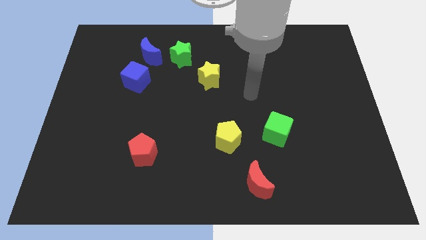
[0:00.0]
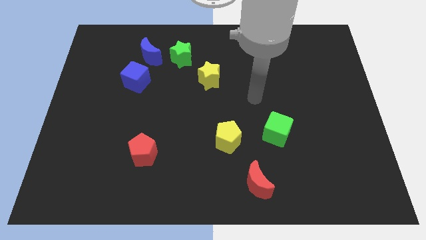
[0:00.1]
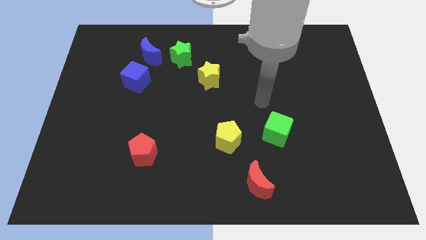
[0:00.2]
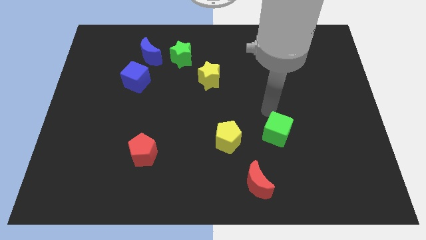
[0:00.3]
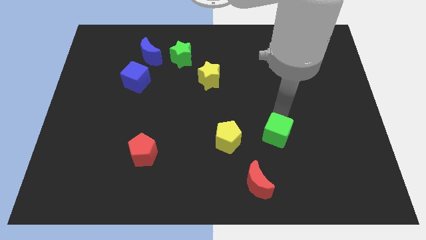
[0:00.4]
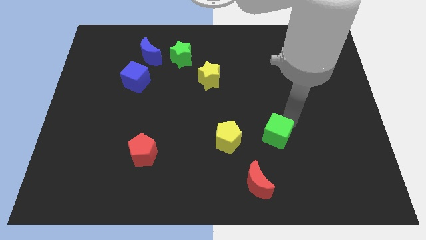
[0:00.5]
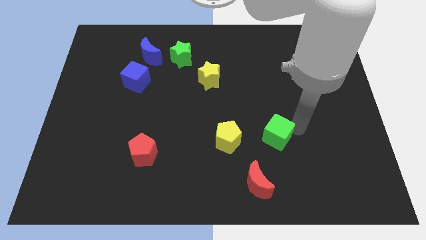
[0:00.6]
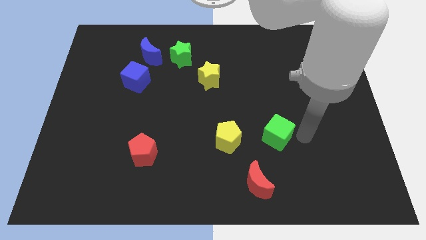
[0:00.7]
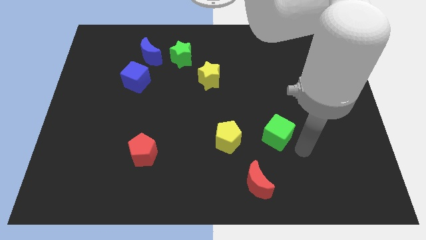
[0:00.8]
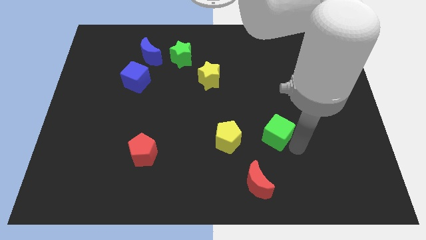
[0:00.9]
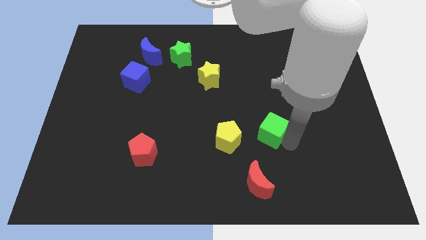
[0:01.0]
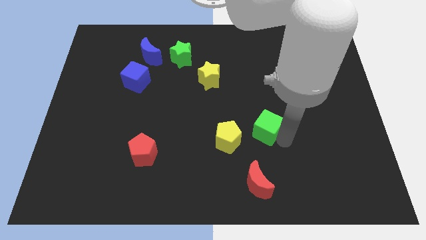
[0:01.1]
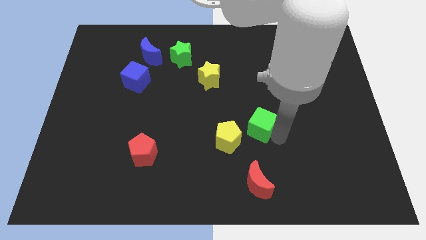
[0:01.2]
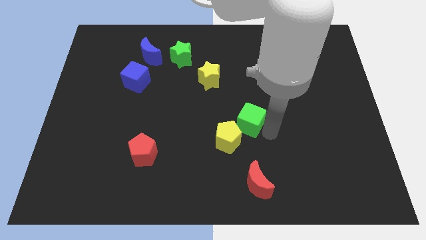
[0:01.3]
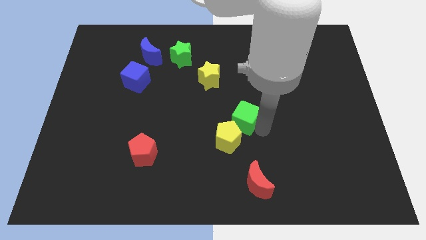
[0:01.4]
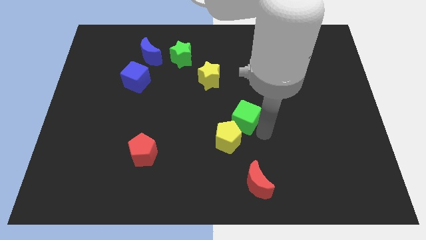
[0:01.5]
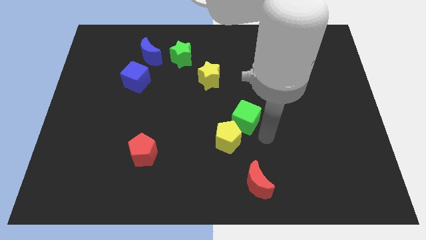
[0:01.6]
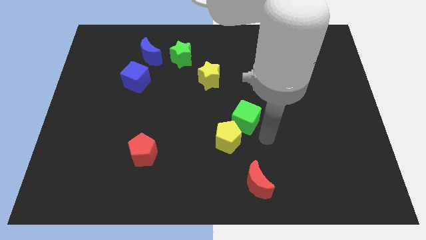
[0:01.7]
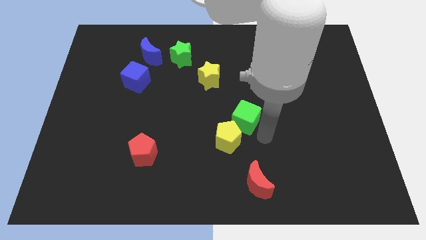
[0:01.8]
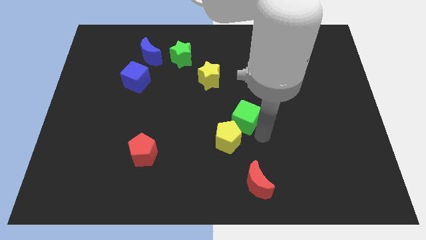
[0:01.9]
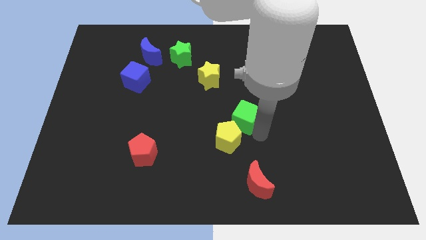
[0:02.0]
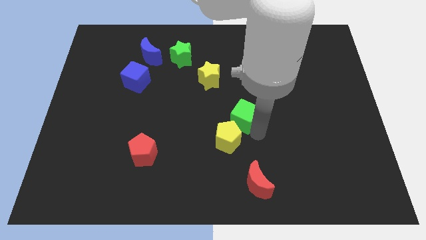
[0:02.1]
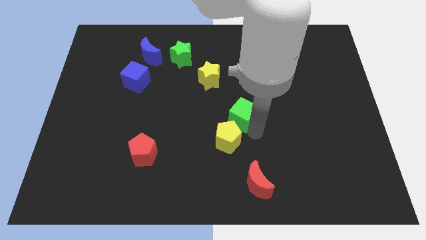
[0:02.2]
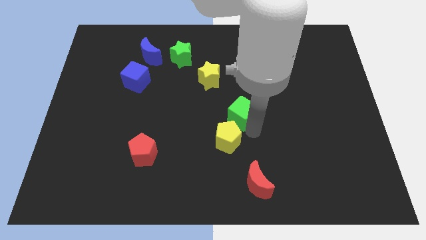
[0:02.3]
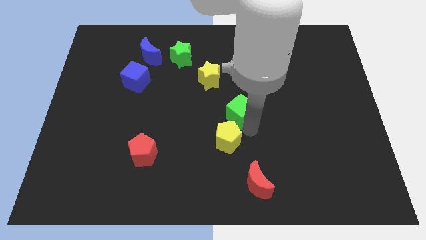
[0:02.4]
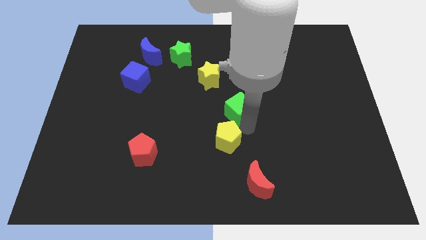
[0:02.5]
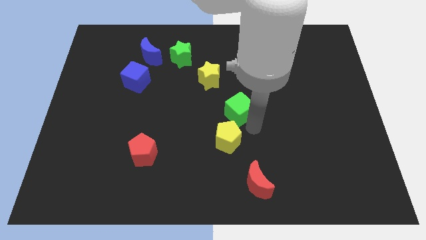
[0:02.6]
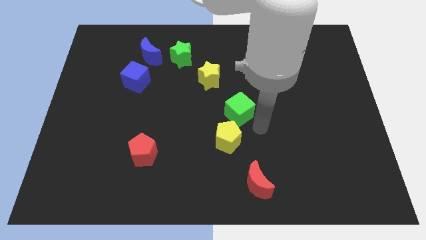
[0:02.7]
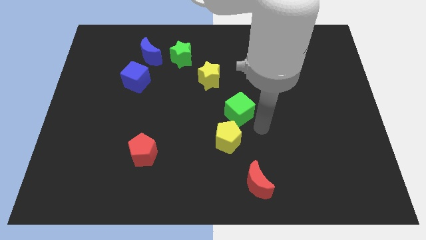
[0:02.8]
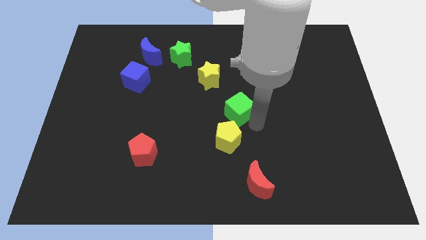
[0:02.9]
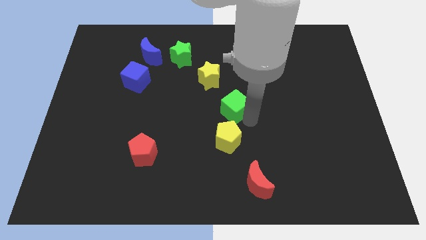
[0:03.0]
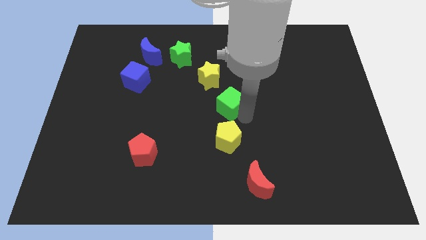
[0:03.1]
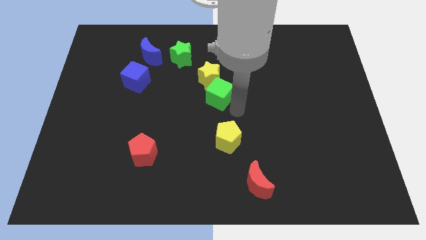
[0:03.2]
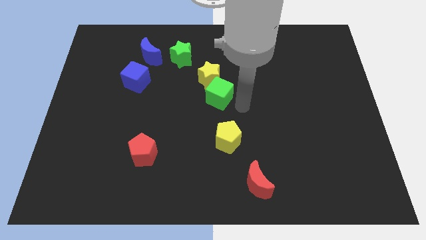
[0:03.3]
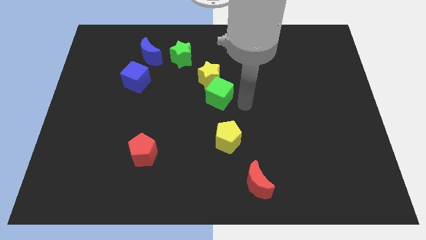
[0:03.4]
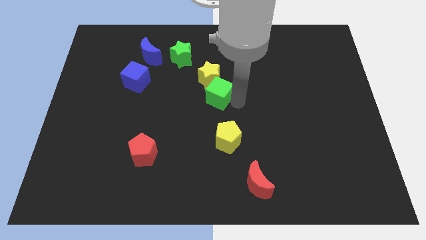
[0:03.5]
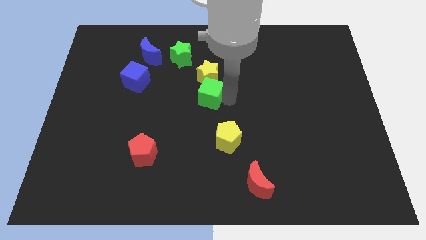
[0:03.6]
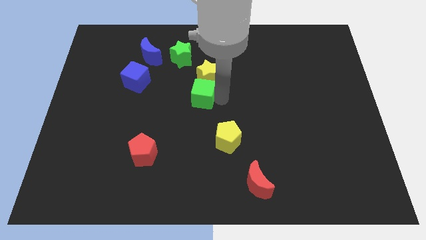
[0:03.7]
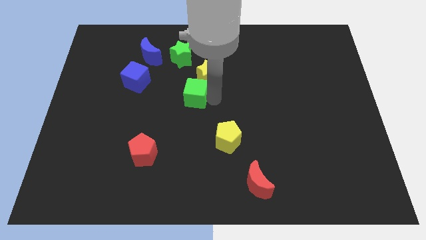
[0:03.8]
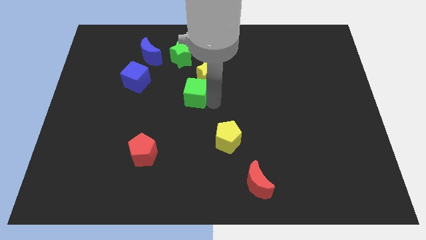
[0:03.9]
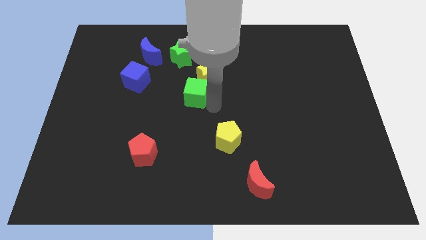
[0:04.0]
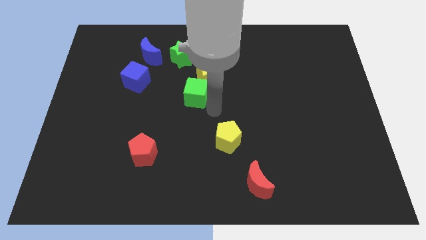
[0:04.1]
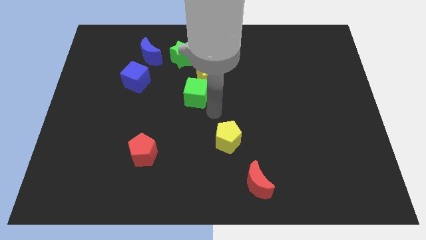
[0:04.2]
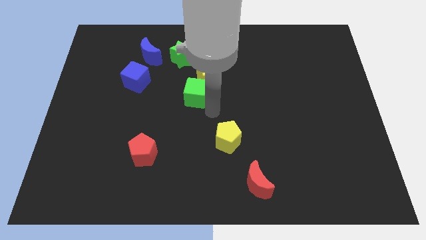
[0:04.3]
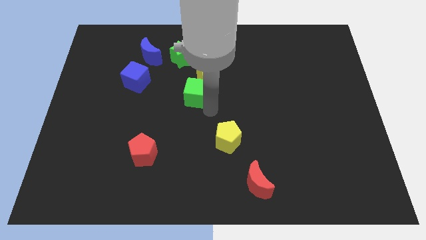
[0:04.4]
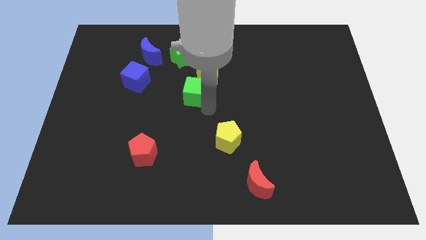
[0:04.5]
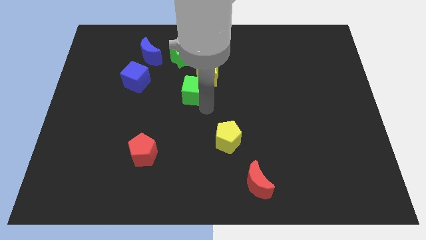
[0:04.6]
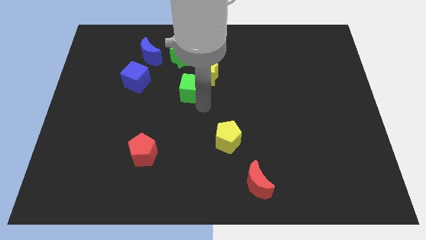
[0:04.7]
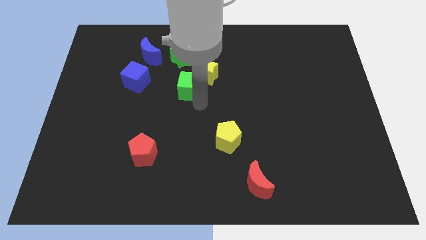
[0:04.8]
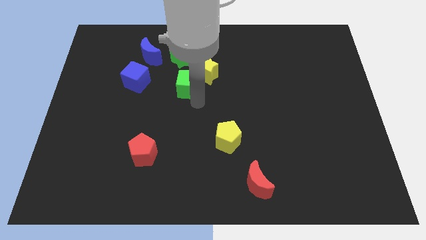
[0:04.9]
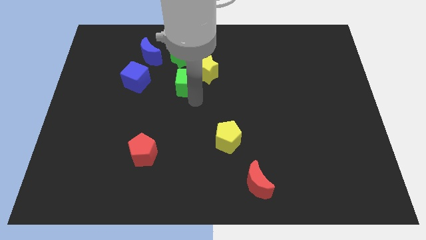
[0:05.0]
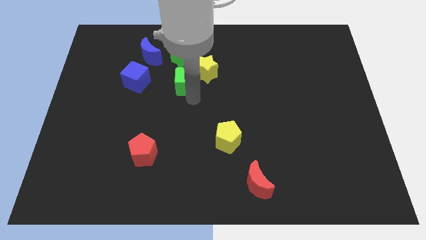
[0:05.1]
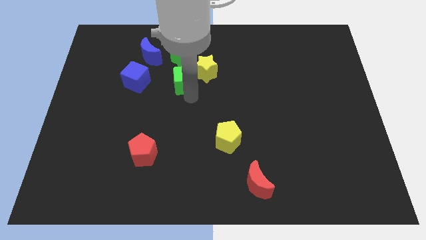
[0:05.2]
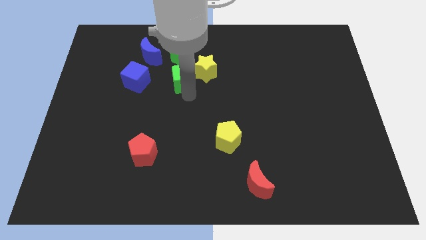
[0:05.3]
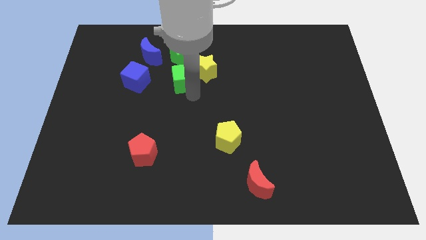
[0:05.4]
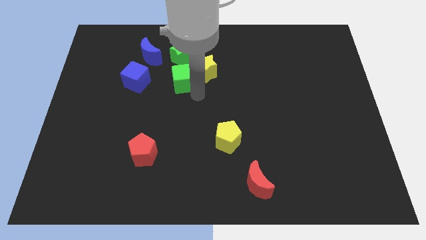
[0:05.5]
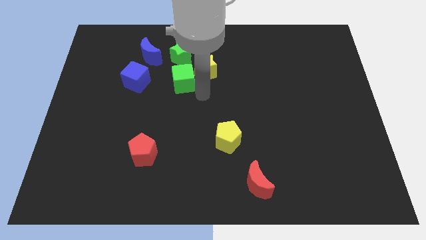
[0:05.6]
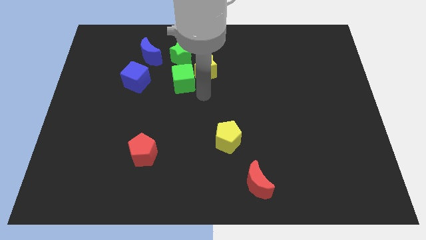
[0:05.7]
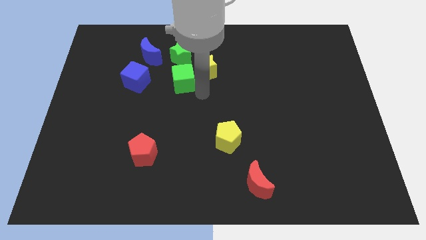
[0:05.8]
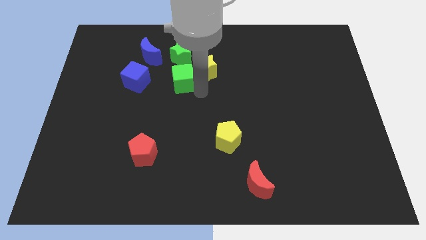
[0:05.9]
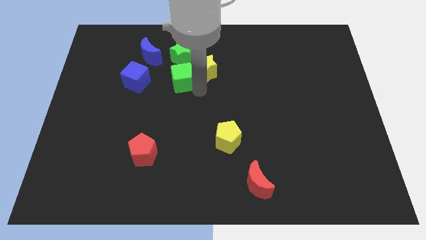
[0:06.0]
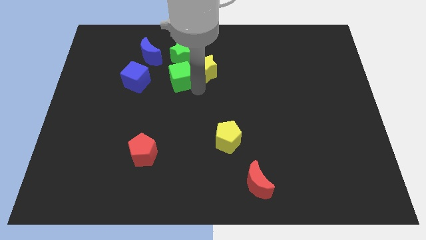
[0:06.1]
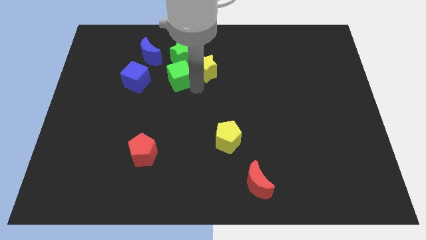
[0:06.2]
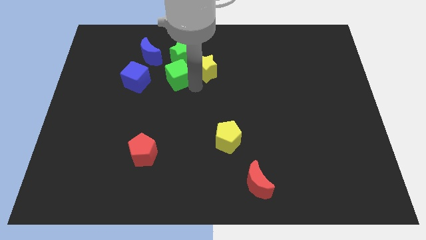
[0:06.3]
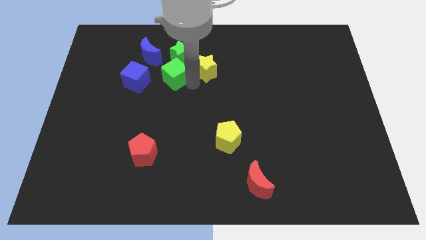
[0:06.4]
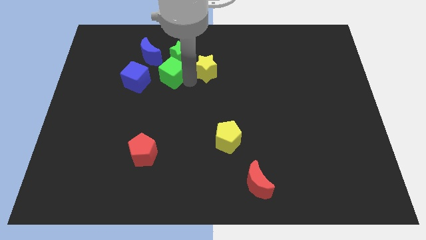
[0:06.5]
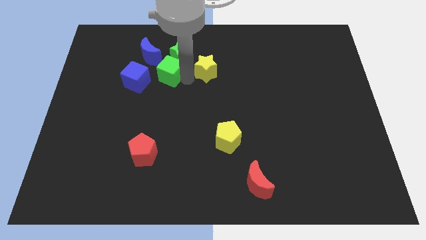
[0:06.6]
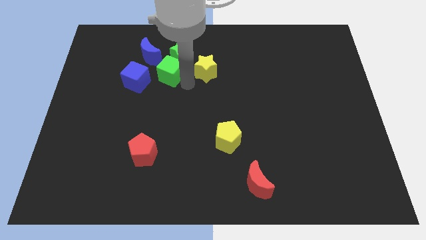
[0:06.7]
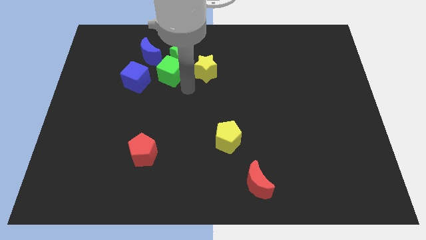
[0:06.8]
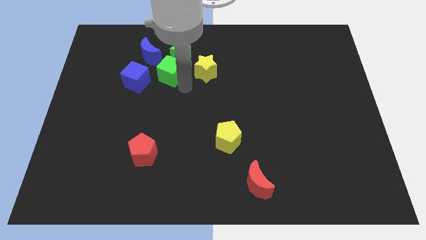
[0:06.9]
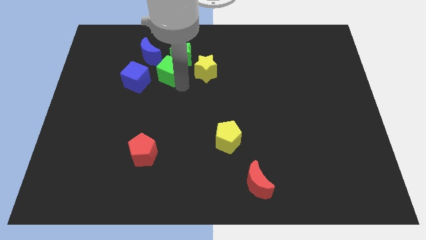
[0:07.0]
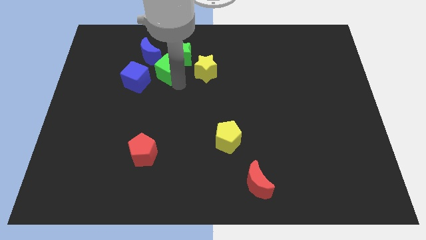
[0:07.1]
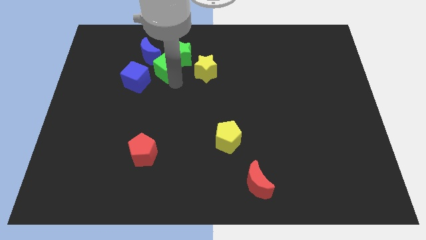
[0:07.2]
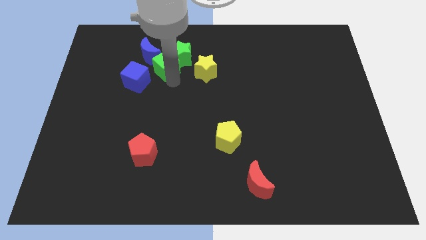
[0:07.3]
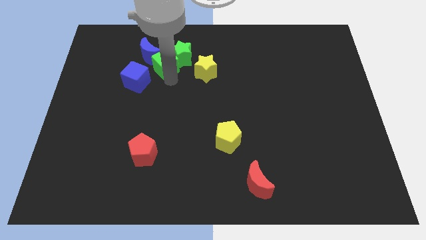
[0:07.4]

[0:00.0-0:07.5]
move the green cube close to the blue moon
